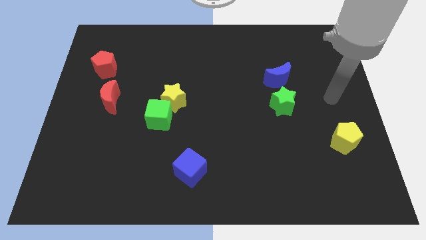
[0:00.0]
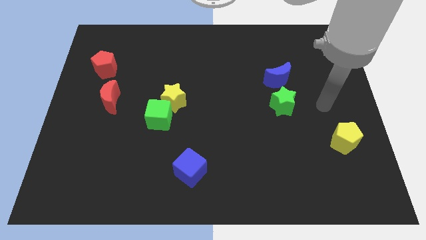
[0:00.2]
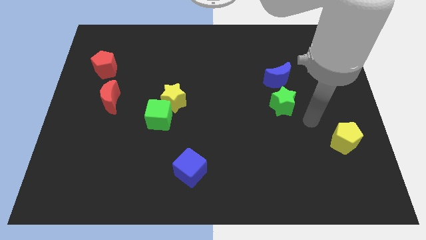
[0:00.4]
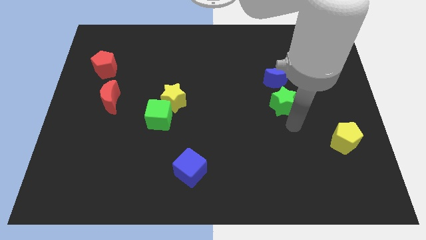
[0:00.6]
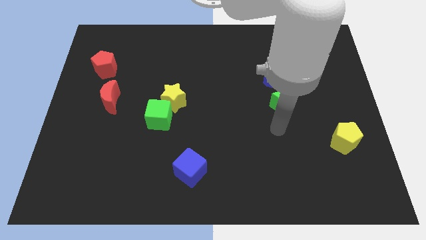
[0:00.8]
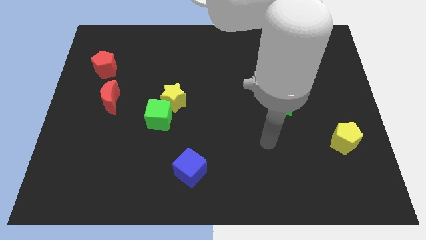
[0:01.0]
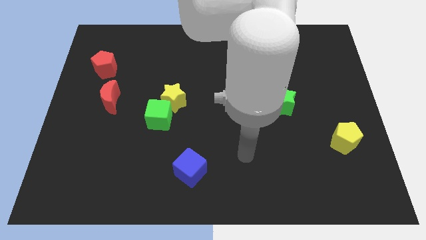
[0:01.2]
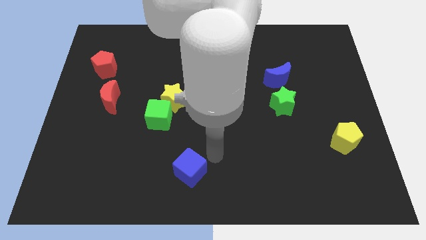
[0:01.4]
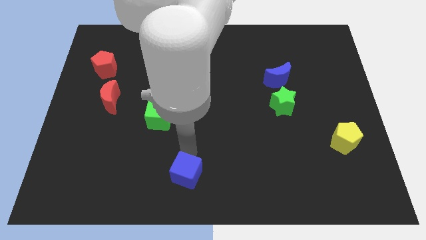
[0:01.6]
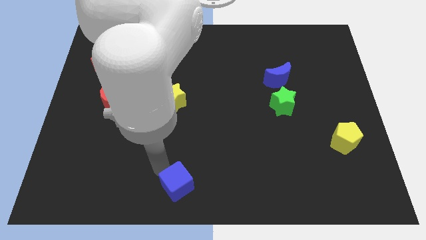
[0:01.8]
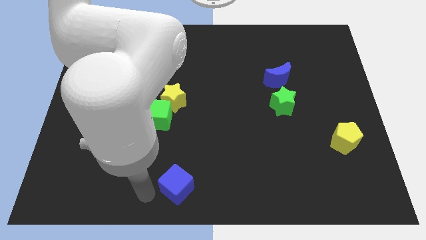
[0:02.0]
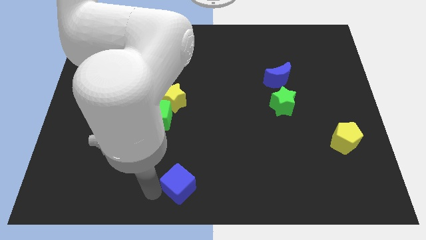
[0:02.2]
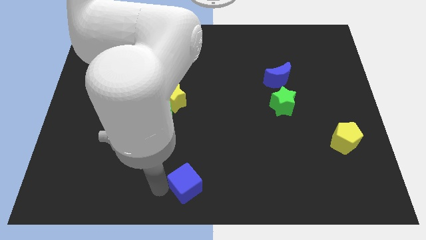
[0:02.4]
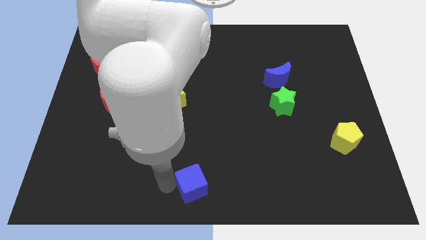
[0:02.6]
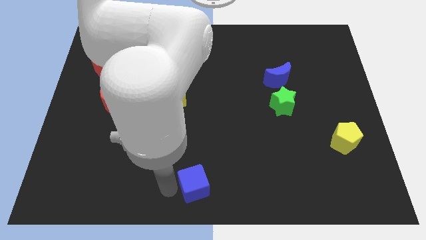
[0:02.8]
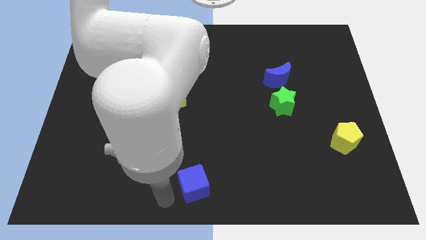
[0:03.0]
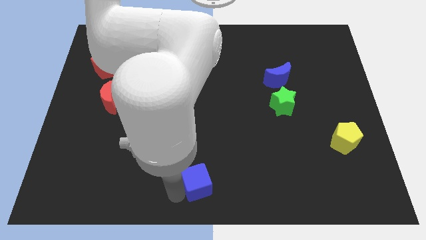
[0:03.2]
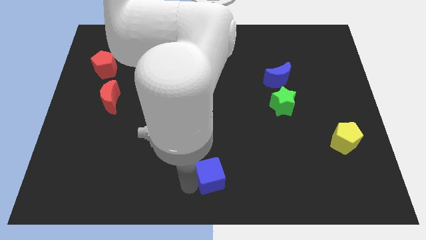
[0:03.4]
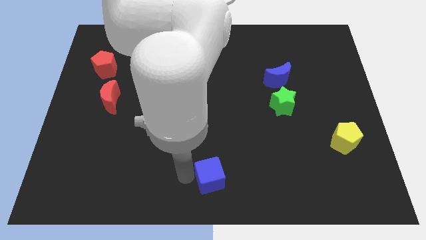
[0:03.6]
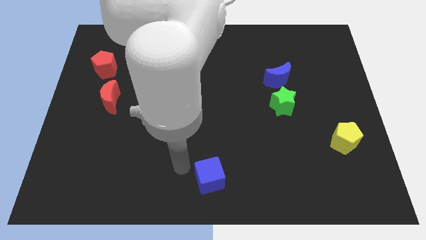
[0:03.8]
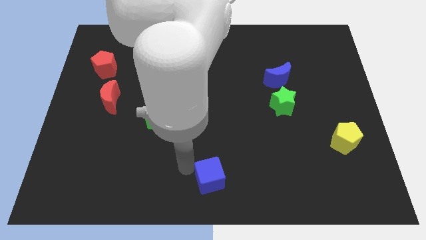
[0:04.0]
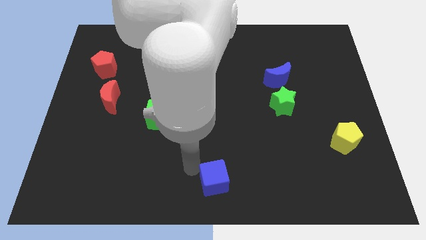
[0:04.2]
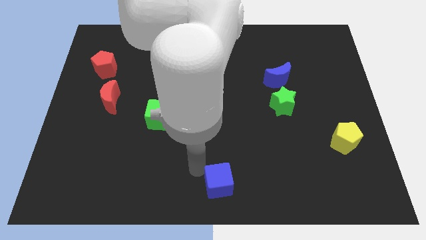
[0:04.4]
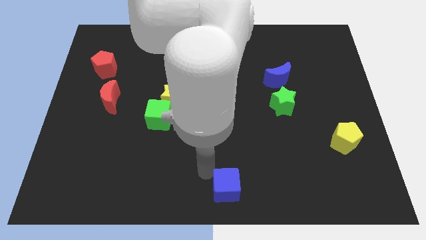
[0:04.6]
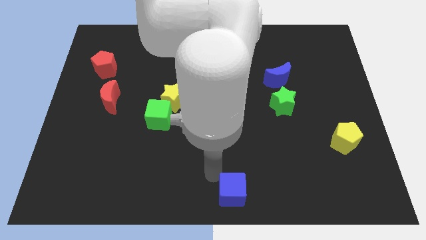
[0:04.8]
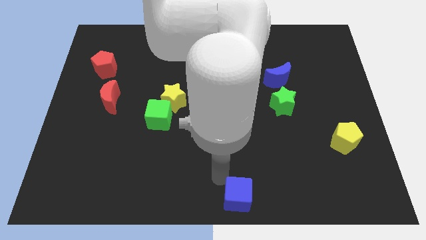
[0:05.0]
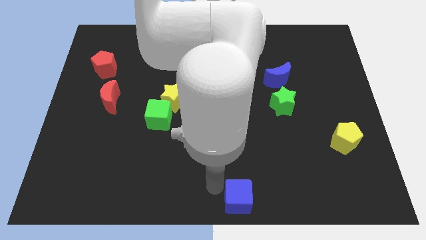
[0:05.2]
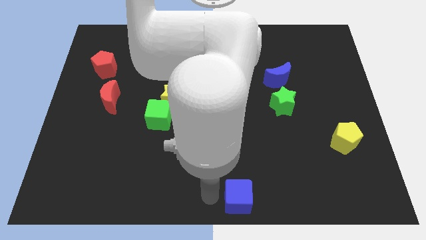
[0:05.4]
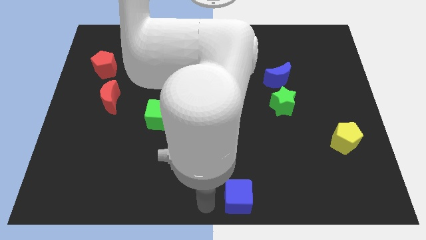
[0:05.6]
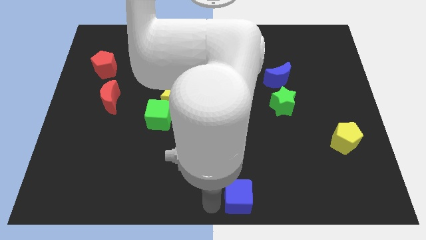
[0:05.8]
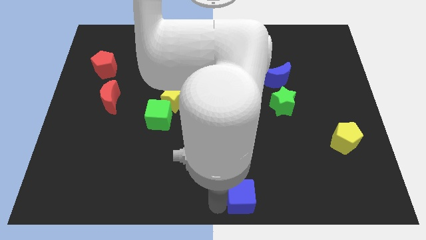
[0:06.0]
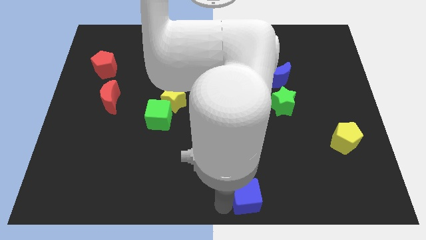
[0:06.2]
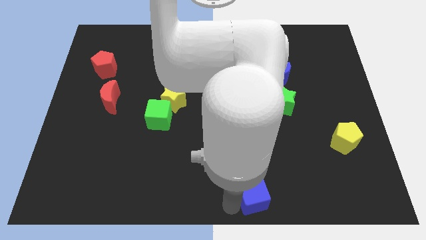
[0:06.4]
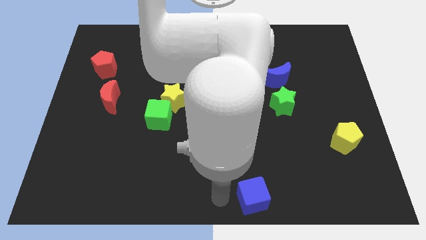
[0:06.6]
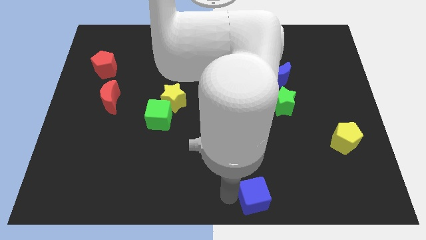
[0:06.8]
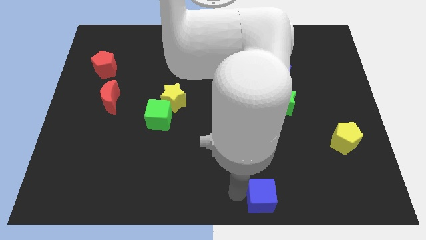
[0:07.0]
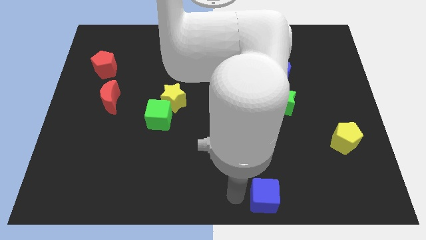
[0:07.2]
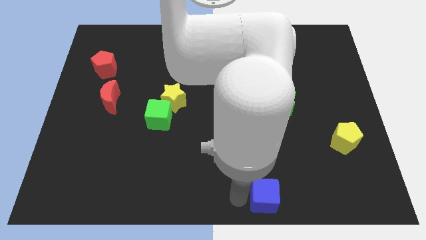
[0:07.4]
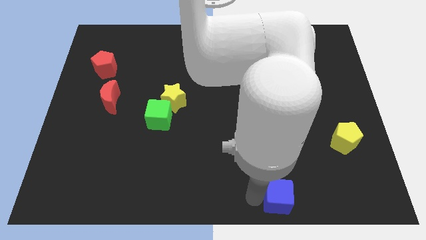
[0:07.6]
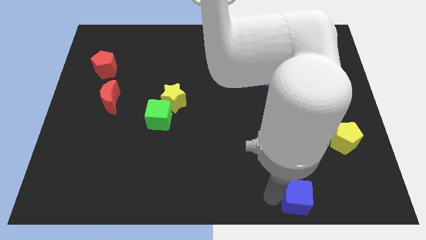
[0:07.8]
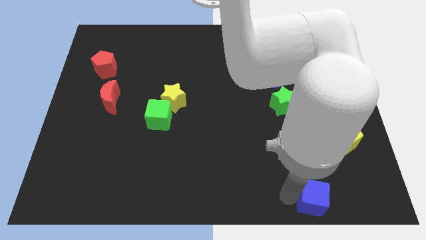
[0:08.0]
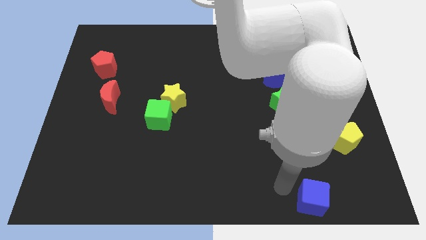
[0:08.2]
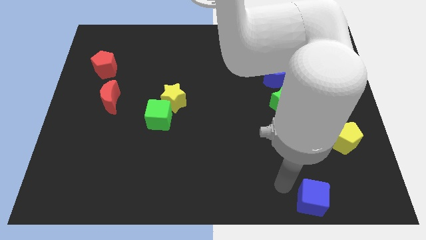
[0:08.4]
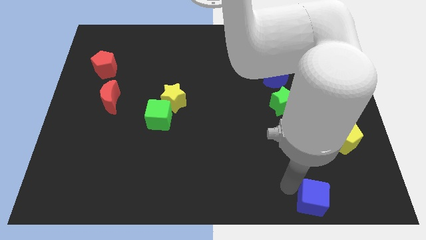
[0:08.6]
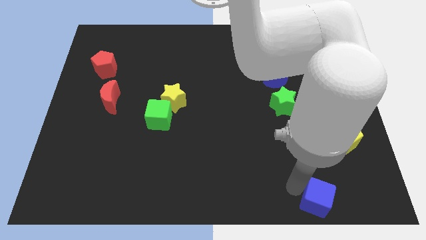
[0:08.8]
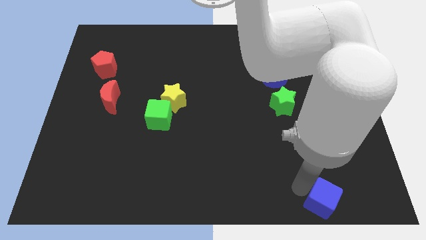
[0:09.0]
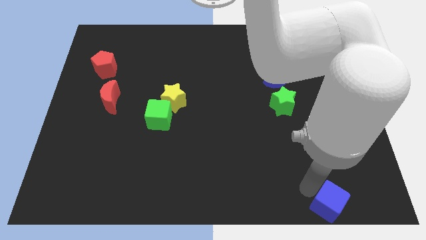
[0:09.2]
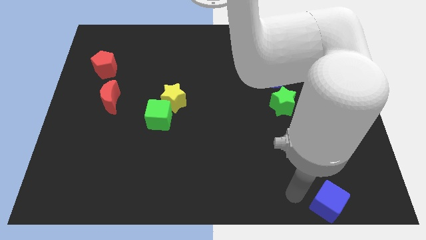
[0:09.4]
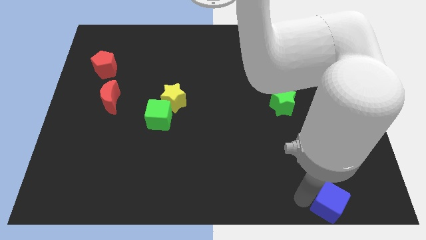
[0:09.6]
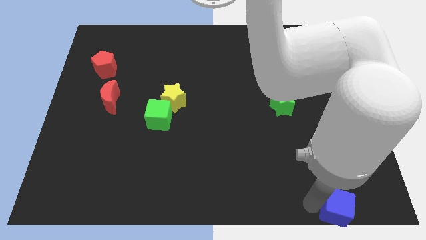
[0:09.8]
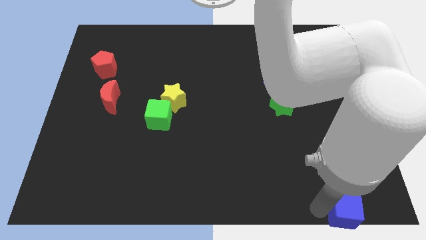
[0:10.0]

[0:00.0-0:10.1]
slide the blue cube to the bottom right

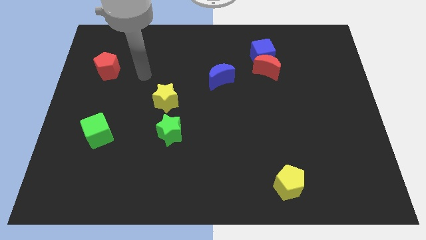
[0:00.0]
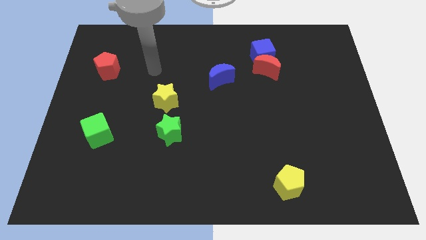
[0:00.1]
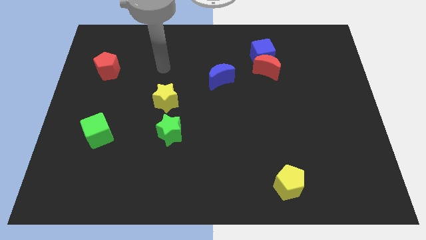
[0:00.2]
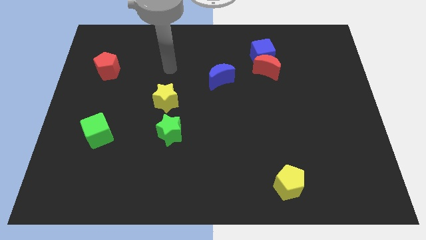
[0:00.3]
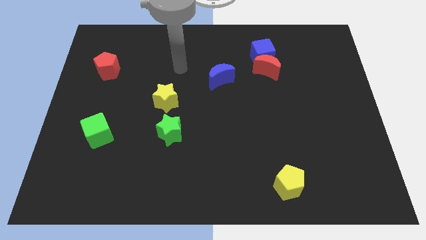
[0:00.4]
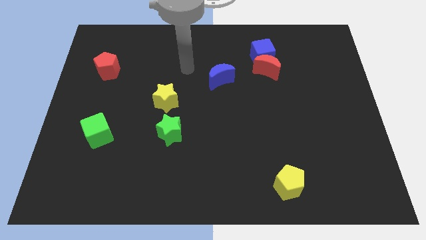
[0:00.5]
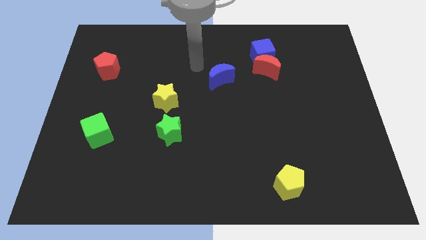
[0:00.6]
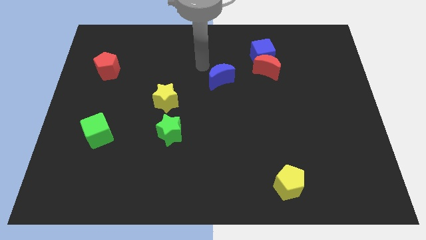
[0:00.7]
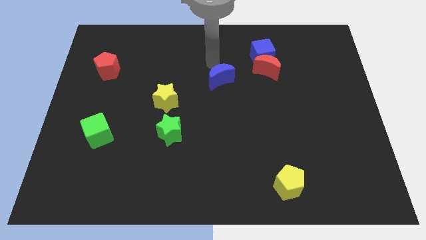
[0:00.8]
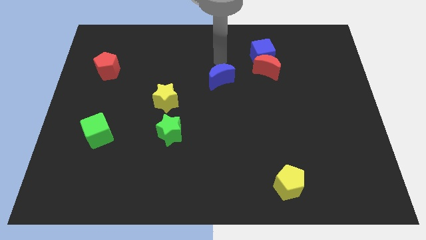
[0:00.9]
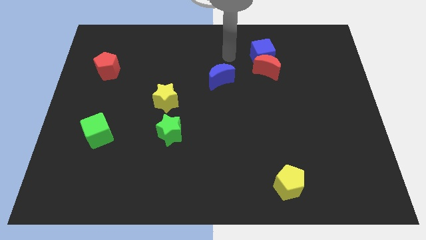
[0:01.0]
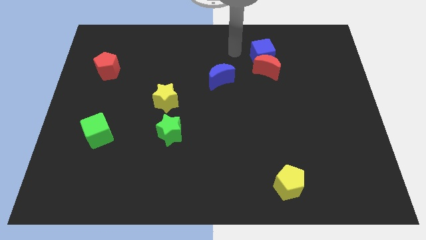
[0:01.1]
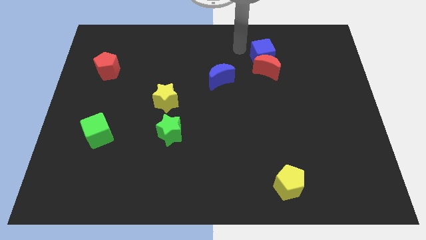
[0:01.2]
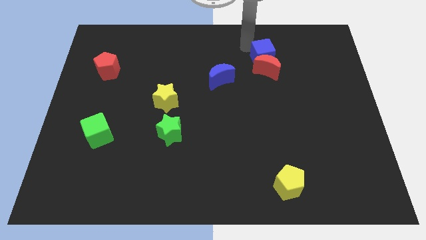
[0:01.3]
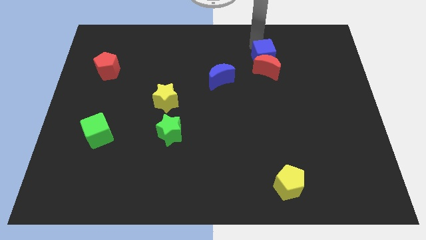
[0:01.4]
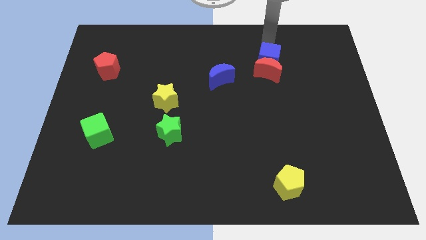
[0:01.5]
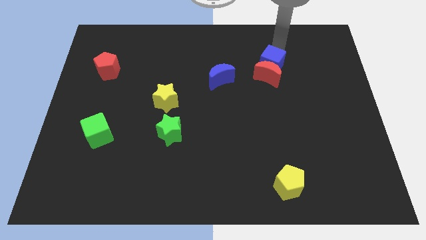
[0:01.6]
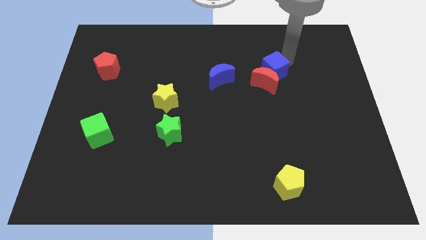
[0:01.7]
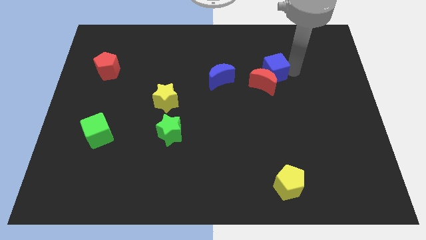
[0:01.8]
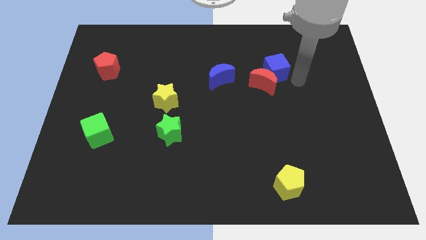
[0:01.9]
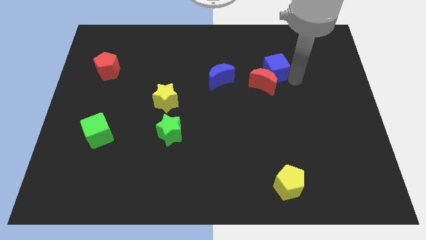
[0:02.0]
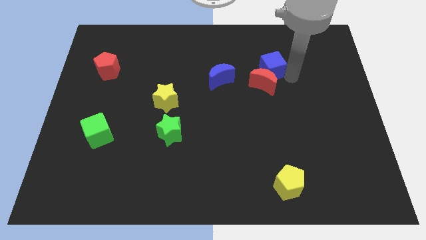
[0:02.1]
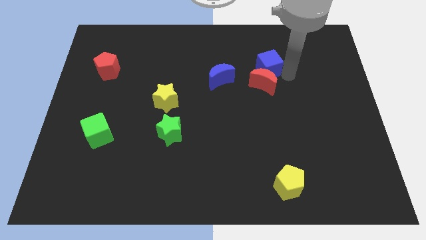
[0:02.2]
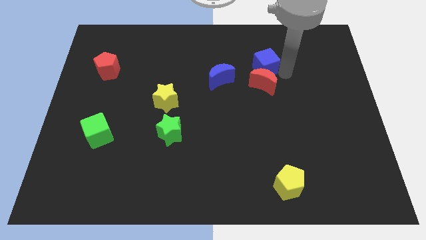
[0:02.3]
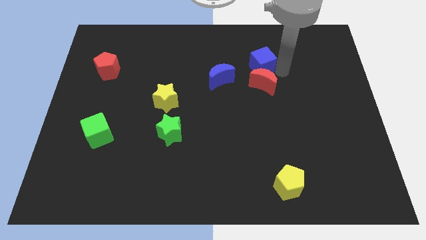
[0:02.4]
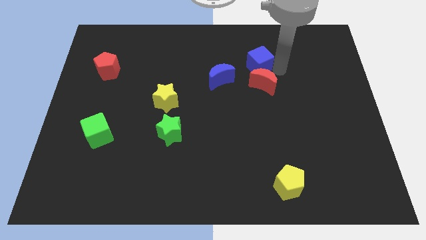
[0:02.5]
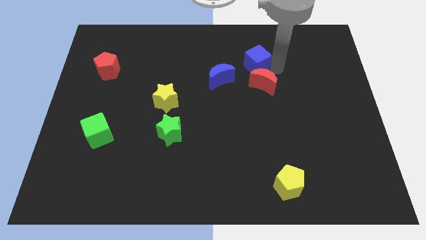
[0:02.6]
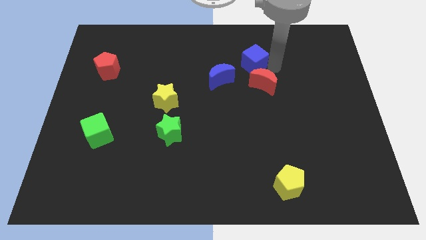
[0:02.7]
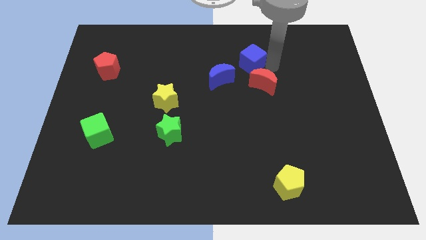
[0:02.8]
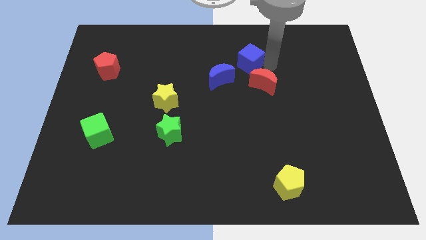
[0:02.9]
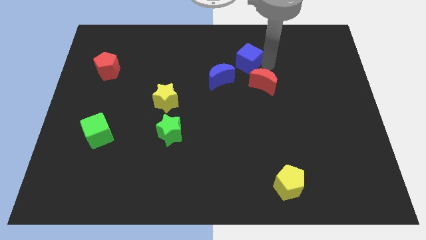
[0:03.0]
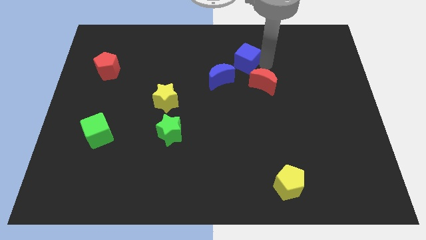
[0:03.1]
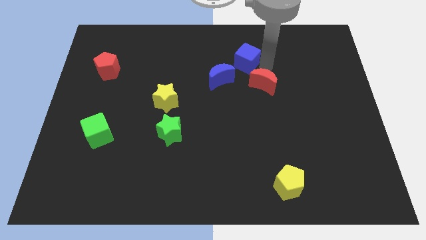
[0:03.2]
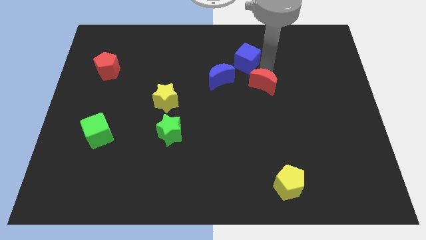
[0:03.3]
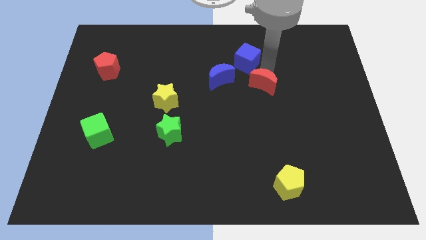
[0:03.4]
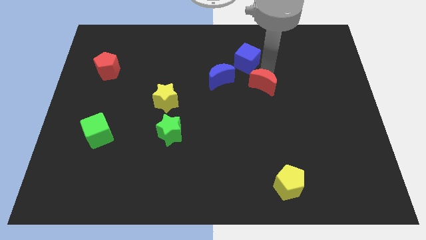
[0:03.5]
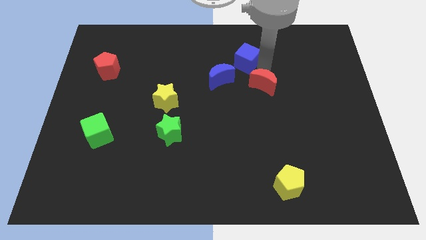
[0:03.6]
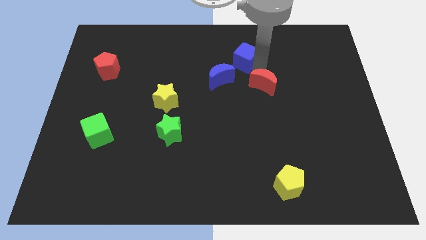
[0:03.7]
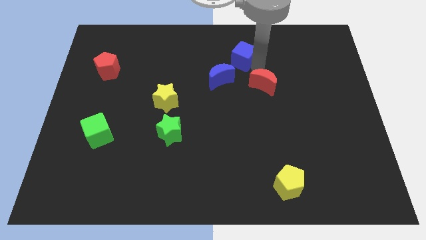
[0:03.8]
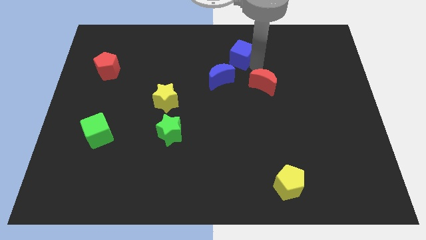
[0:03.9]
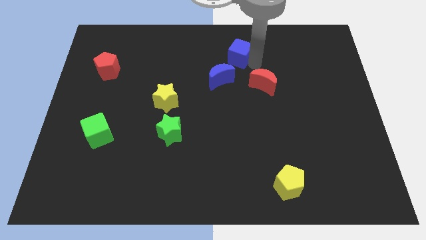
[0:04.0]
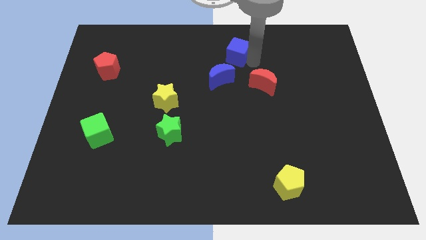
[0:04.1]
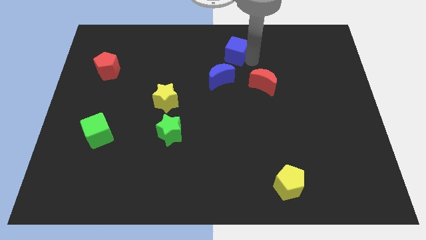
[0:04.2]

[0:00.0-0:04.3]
slide the blue cube to the top
